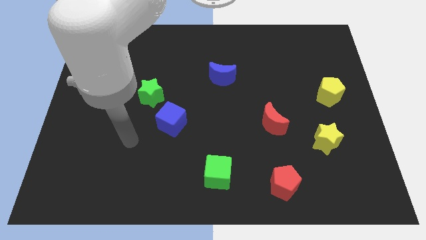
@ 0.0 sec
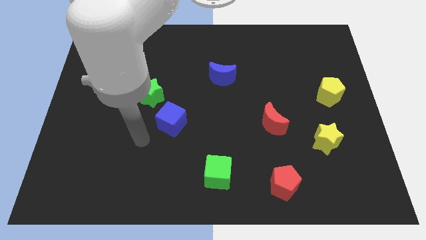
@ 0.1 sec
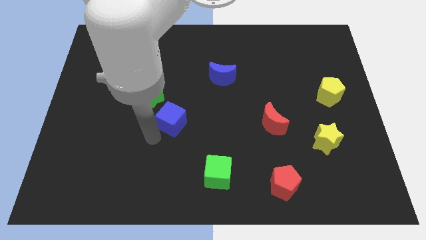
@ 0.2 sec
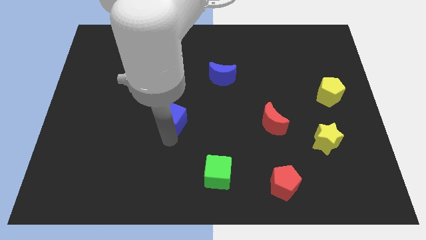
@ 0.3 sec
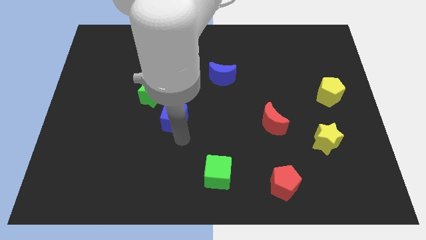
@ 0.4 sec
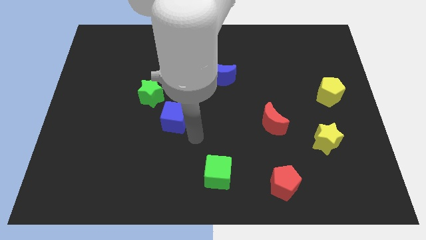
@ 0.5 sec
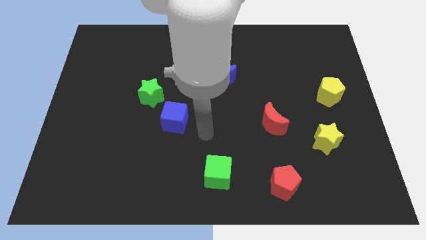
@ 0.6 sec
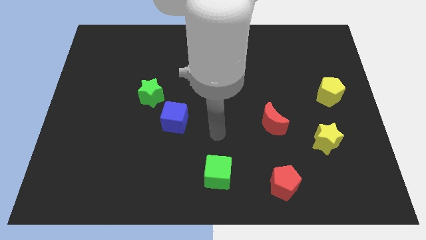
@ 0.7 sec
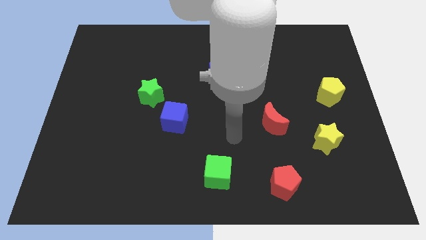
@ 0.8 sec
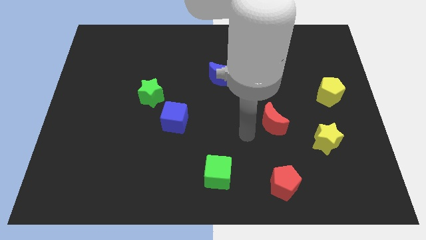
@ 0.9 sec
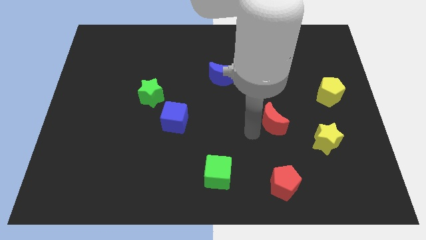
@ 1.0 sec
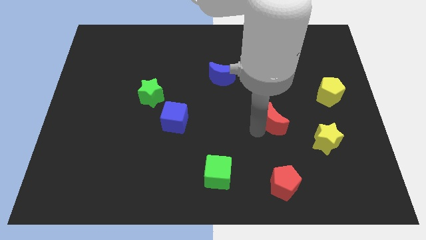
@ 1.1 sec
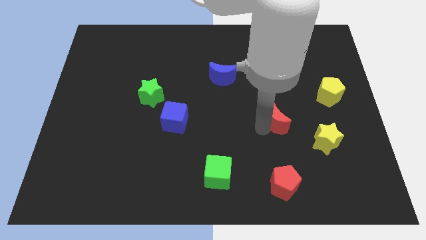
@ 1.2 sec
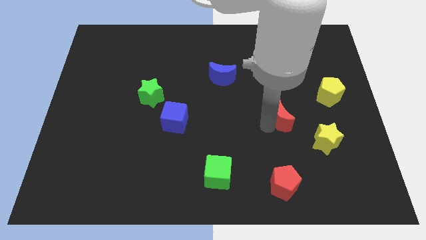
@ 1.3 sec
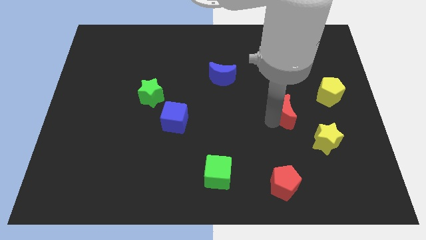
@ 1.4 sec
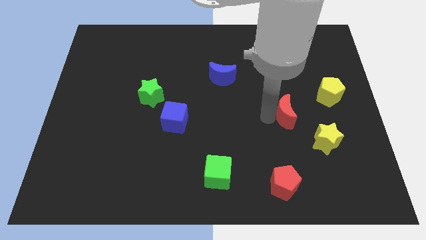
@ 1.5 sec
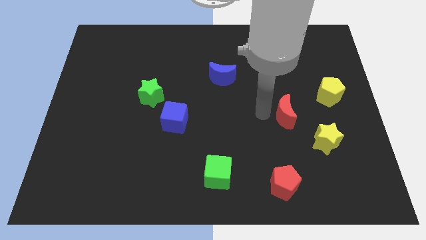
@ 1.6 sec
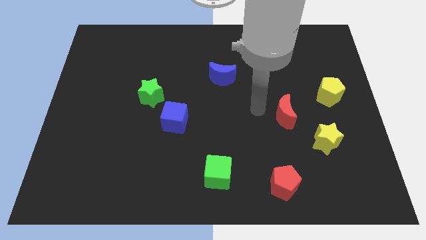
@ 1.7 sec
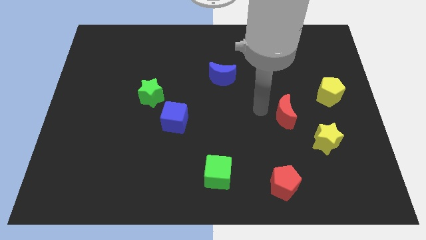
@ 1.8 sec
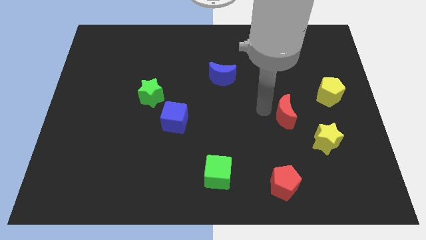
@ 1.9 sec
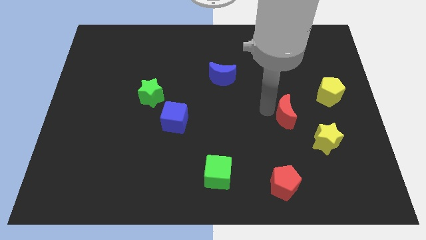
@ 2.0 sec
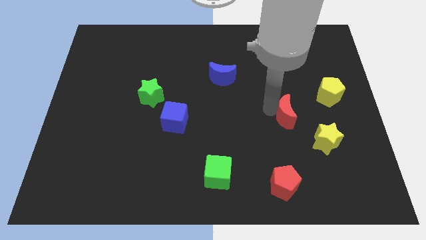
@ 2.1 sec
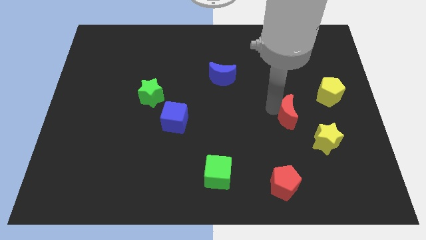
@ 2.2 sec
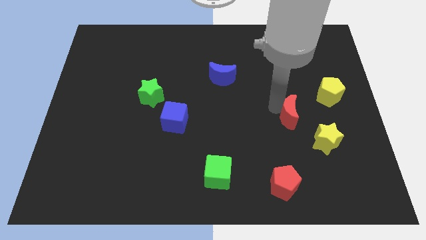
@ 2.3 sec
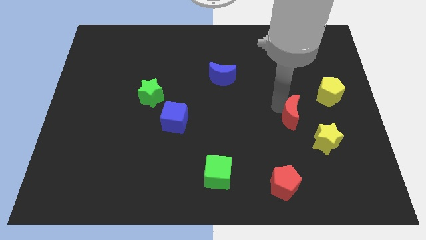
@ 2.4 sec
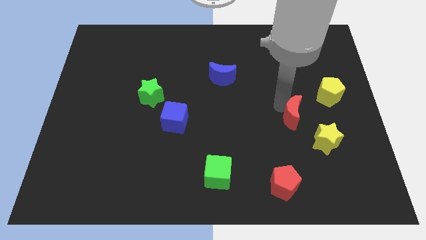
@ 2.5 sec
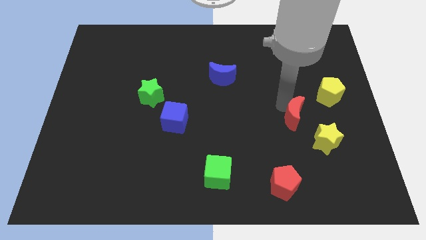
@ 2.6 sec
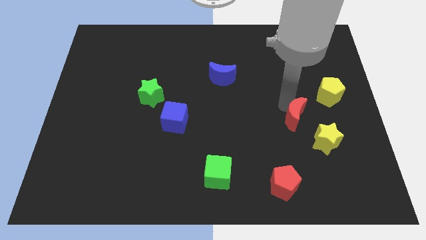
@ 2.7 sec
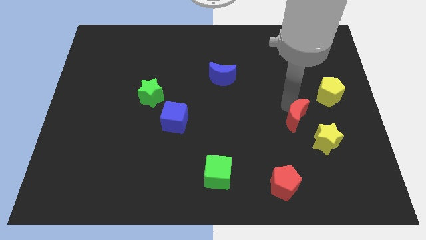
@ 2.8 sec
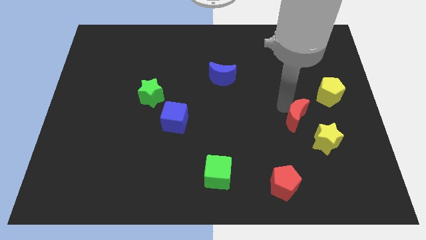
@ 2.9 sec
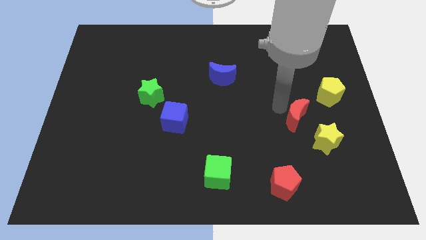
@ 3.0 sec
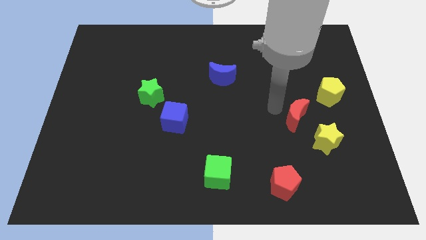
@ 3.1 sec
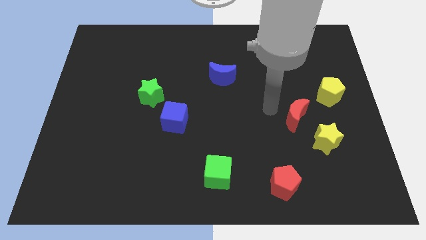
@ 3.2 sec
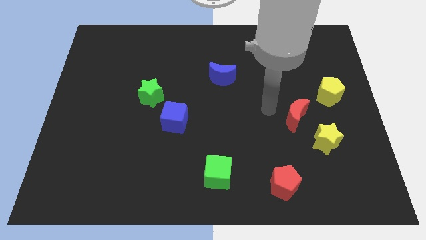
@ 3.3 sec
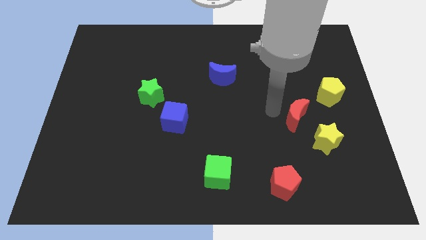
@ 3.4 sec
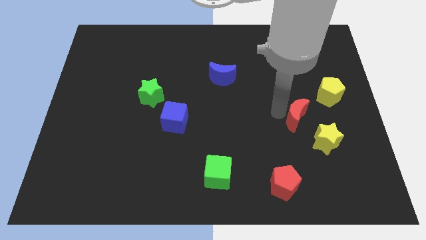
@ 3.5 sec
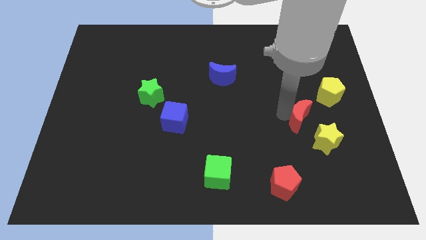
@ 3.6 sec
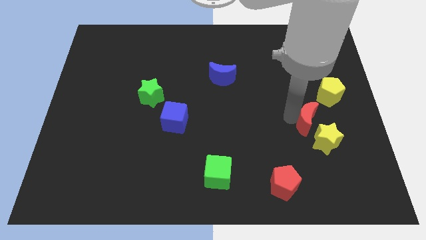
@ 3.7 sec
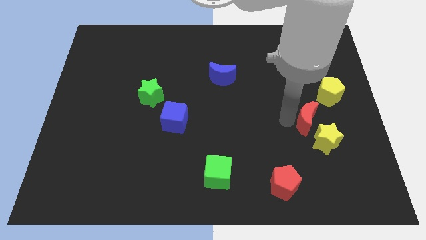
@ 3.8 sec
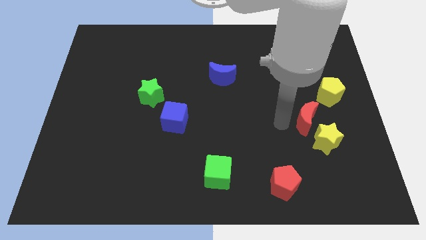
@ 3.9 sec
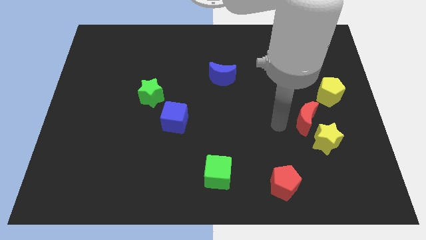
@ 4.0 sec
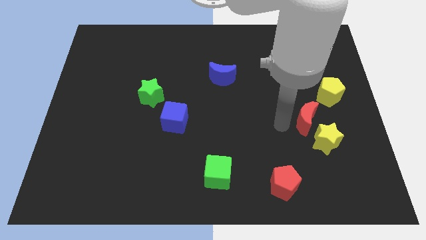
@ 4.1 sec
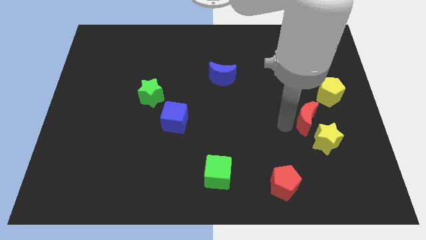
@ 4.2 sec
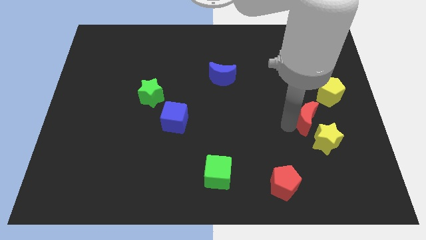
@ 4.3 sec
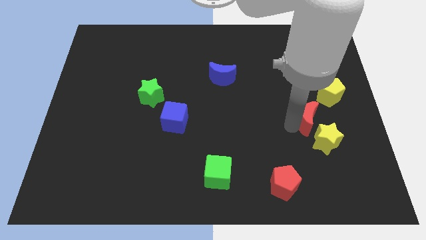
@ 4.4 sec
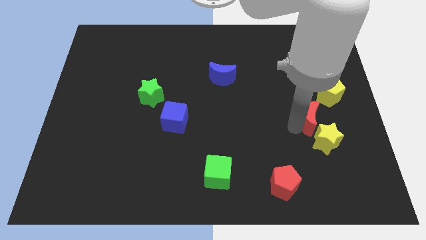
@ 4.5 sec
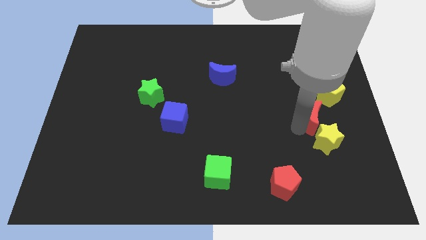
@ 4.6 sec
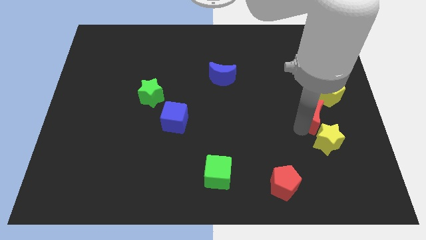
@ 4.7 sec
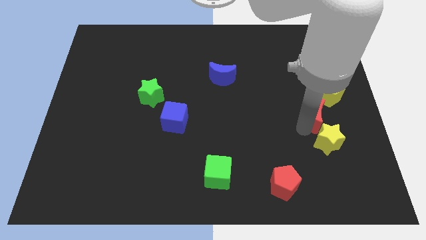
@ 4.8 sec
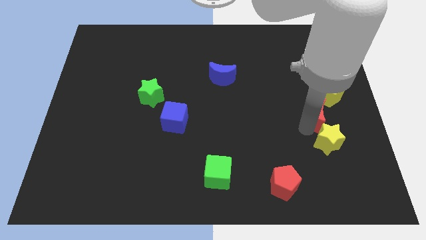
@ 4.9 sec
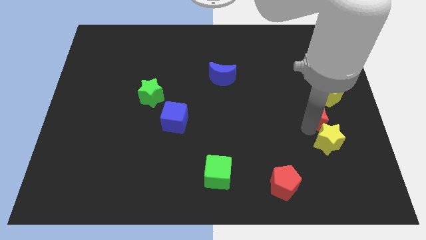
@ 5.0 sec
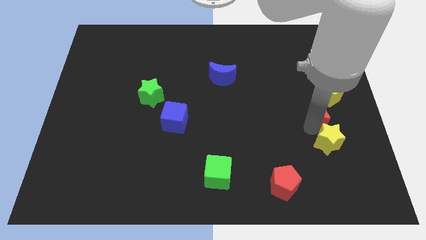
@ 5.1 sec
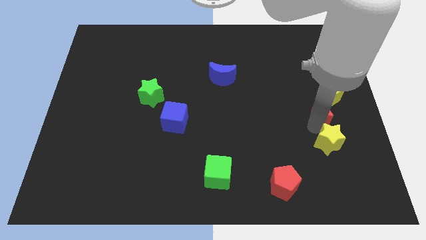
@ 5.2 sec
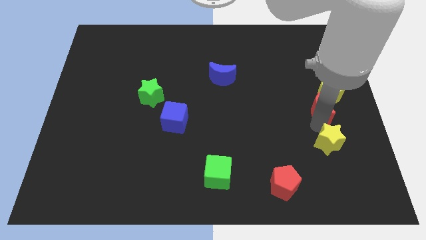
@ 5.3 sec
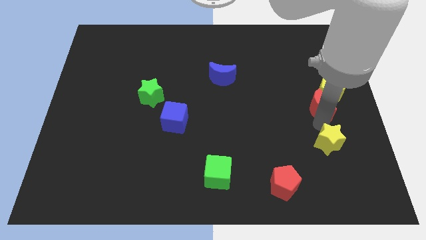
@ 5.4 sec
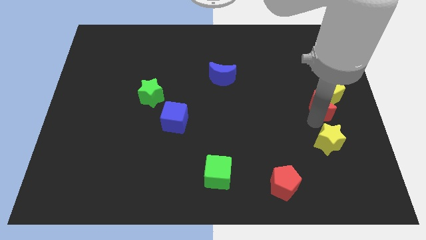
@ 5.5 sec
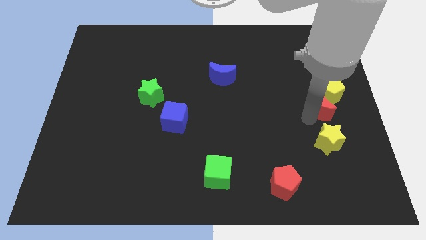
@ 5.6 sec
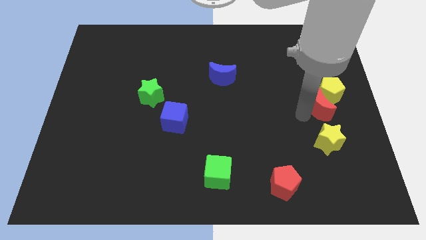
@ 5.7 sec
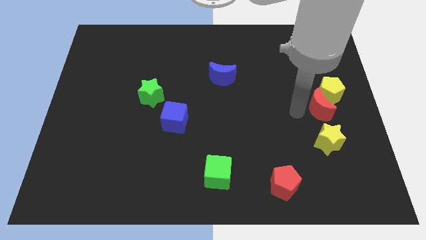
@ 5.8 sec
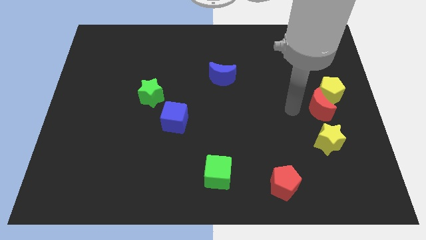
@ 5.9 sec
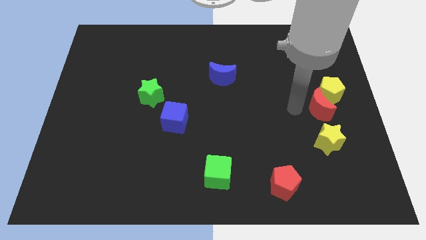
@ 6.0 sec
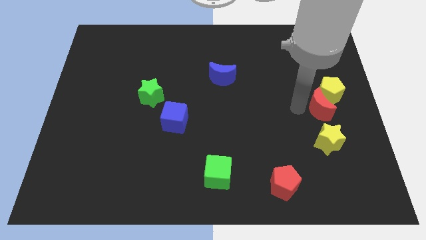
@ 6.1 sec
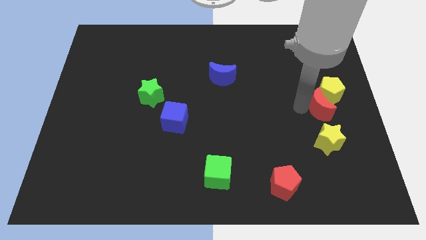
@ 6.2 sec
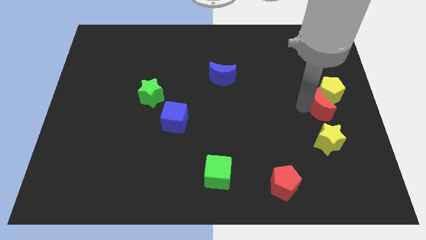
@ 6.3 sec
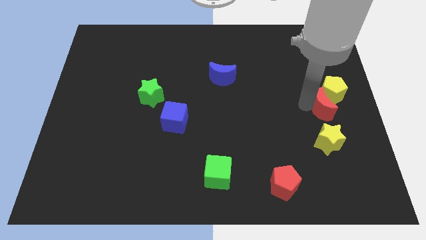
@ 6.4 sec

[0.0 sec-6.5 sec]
push the red moon to the right side of the board
